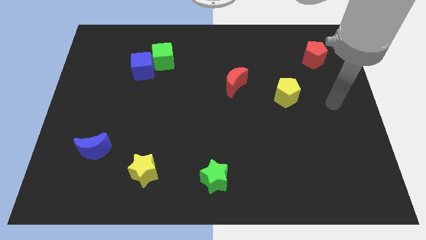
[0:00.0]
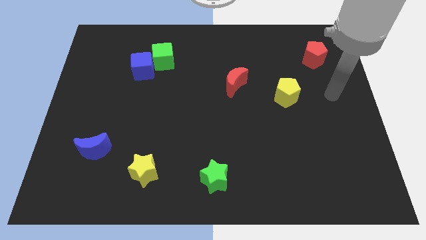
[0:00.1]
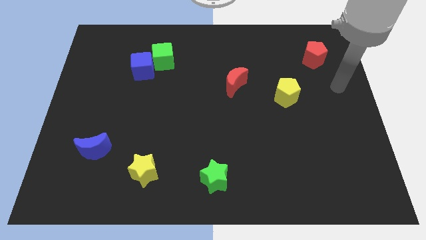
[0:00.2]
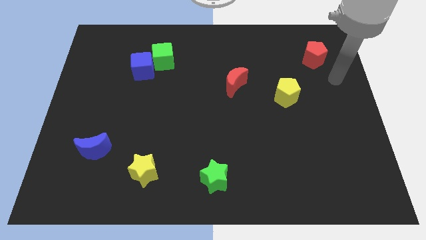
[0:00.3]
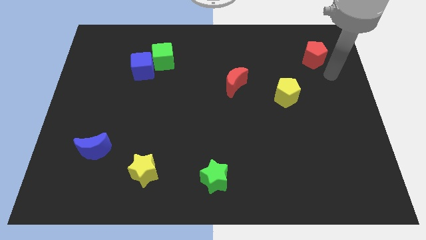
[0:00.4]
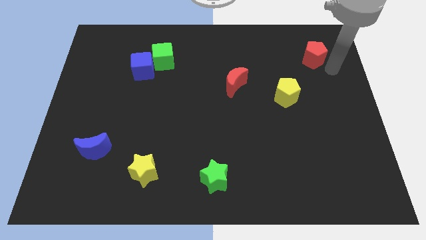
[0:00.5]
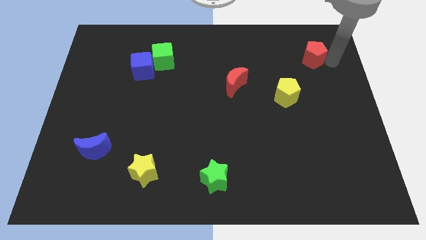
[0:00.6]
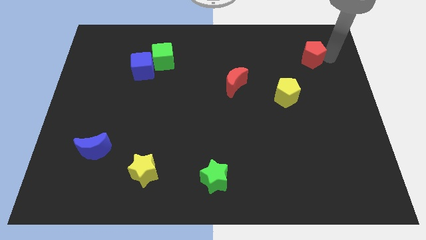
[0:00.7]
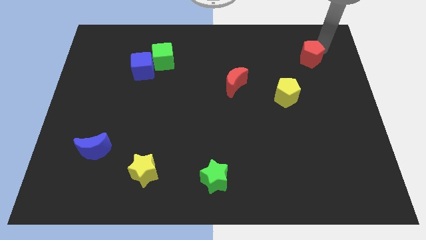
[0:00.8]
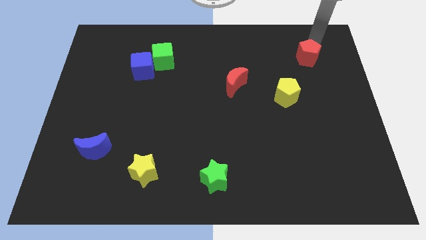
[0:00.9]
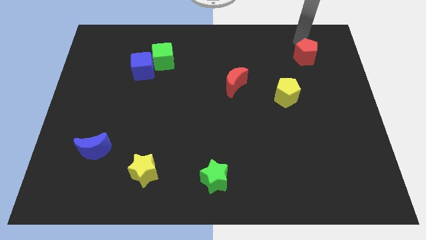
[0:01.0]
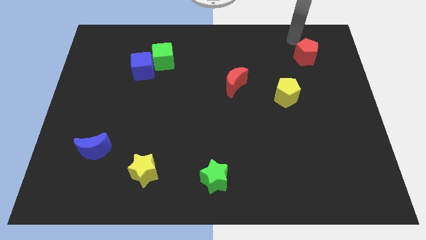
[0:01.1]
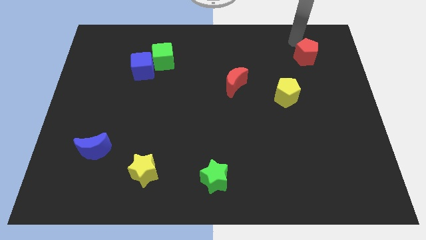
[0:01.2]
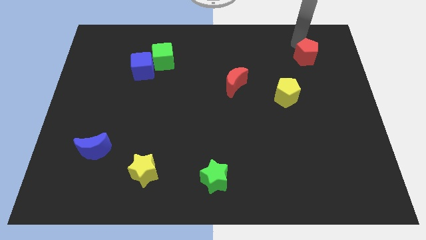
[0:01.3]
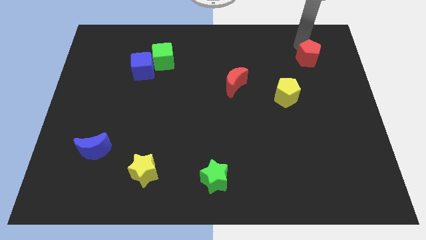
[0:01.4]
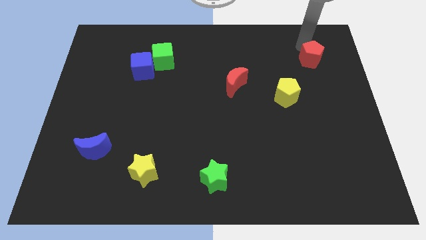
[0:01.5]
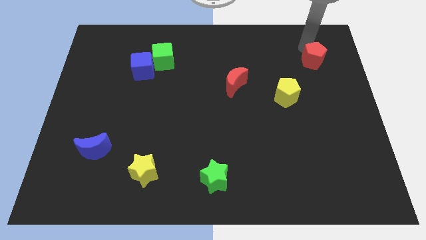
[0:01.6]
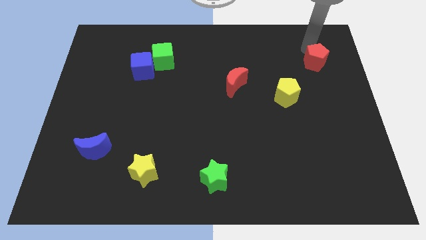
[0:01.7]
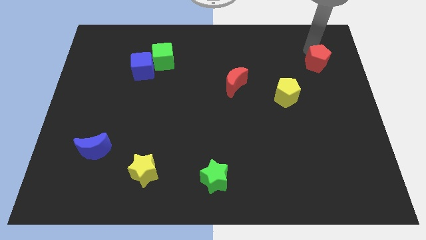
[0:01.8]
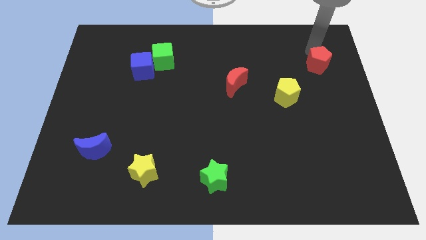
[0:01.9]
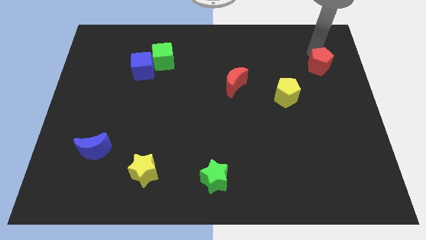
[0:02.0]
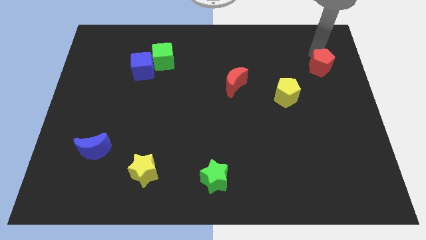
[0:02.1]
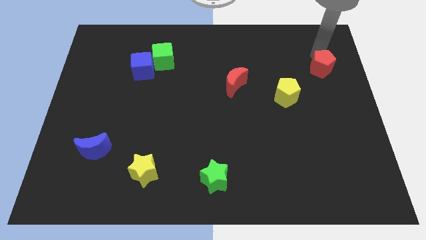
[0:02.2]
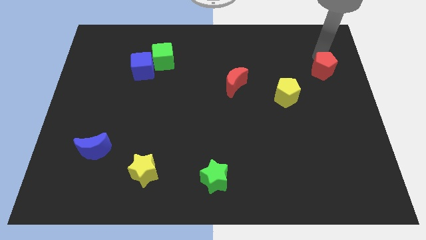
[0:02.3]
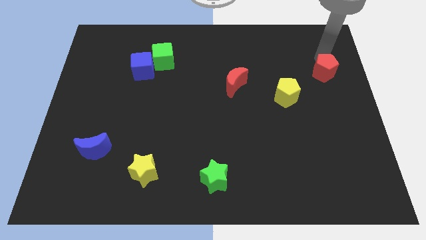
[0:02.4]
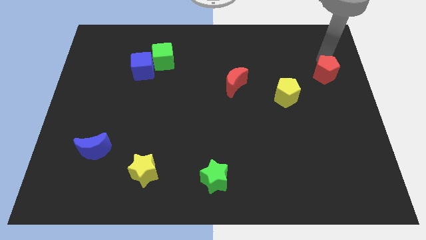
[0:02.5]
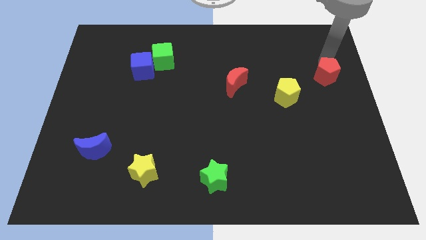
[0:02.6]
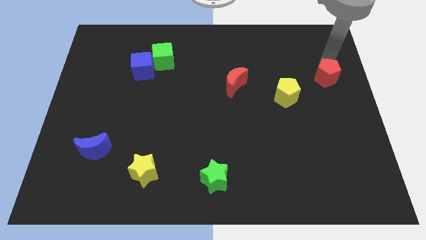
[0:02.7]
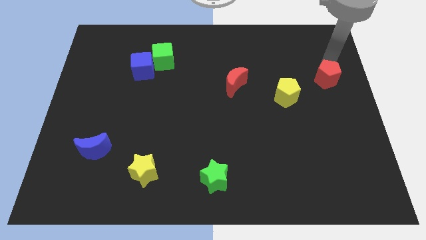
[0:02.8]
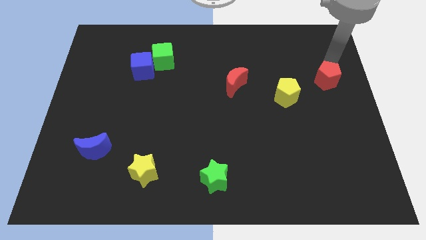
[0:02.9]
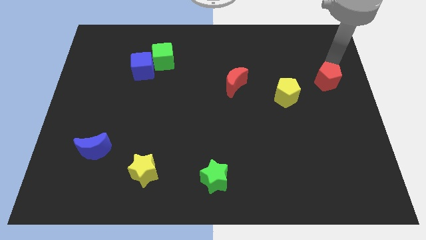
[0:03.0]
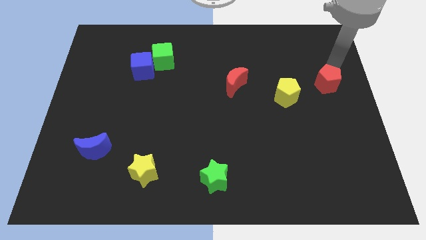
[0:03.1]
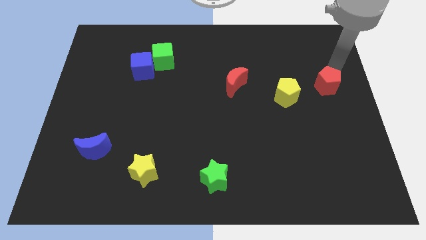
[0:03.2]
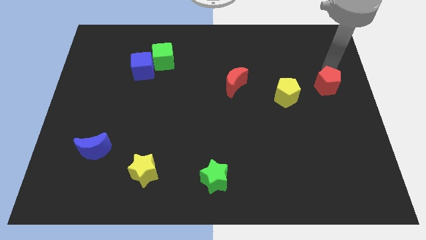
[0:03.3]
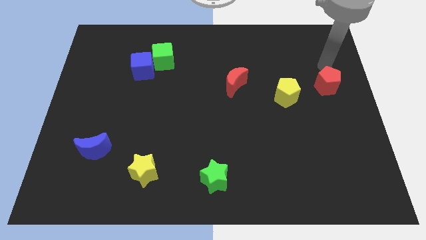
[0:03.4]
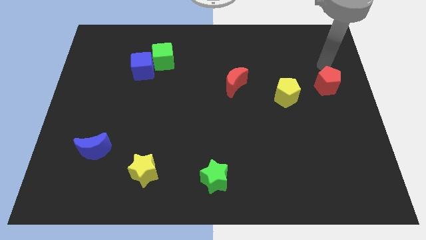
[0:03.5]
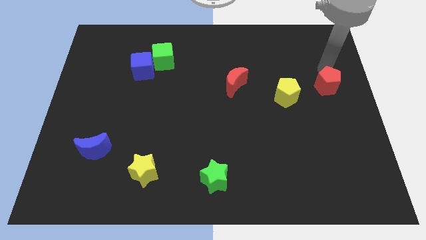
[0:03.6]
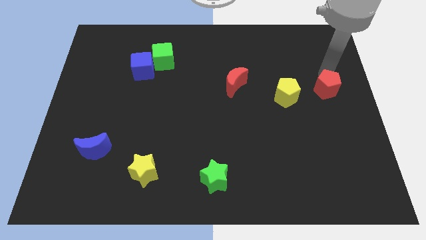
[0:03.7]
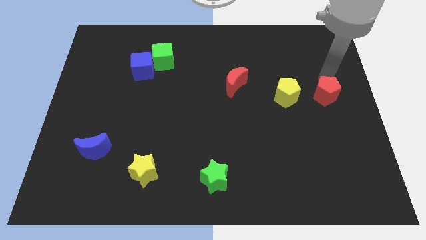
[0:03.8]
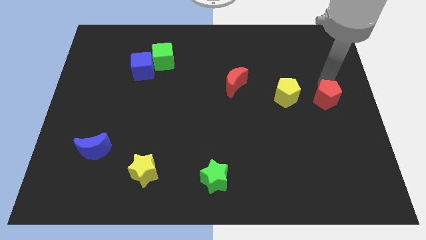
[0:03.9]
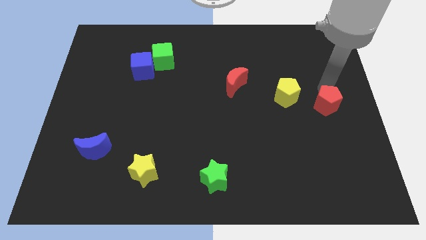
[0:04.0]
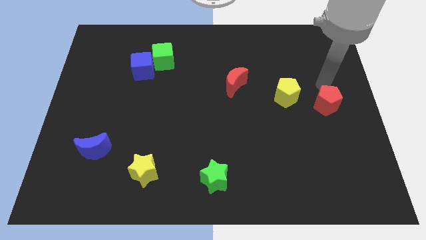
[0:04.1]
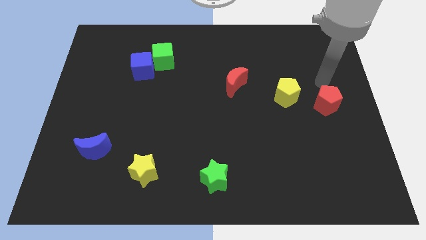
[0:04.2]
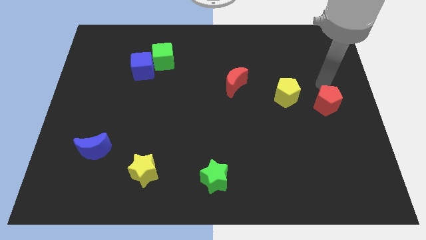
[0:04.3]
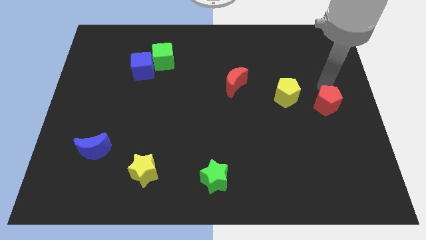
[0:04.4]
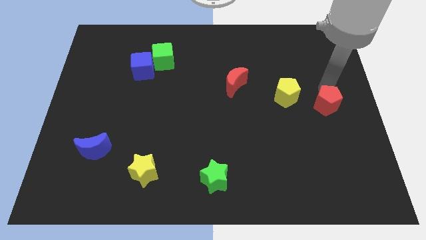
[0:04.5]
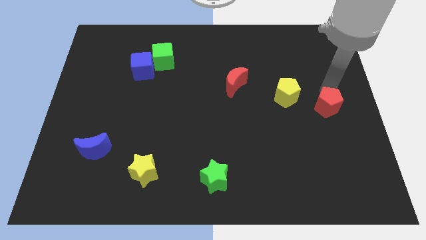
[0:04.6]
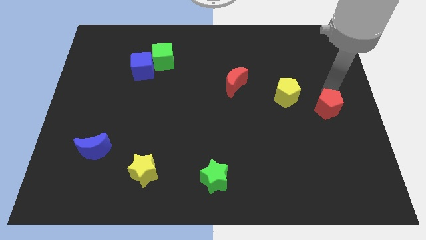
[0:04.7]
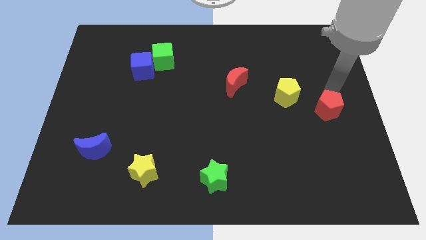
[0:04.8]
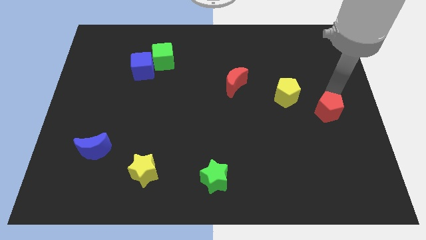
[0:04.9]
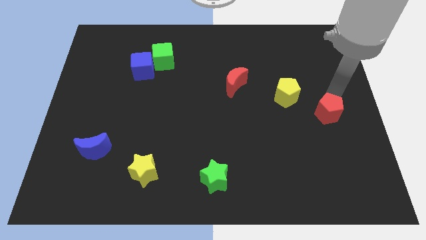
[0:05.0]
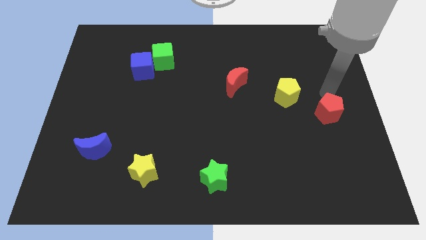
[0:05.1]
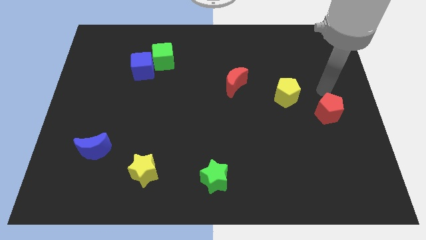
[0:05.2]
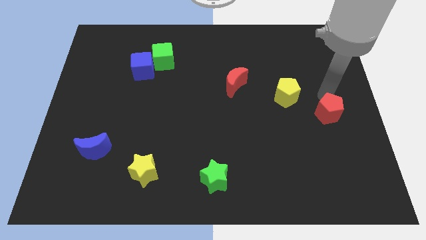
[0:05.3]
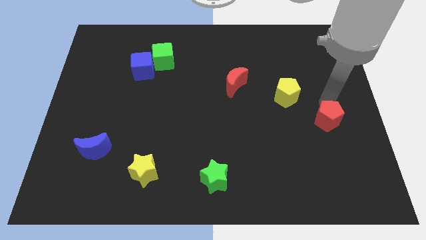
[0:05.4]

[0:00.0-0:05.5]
push the red pentagon down

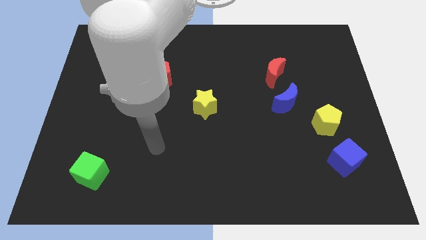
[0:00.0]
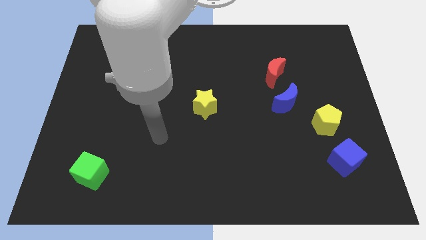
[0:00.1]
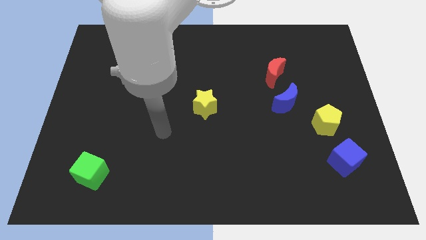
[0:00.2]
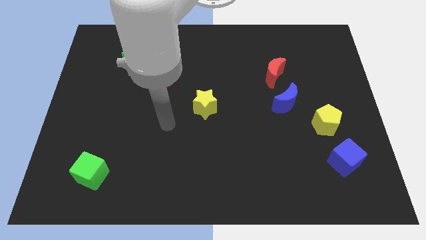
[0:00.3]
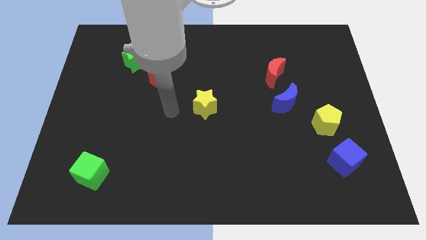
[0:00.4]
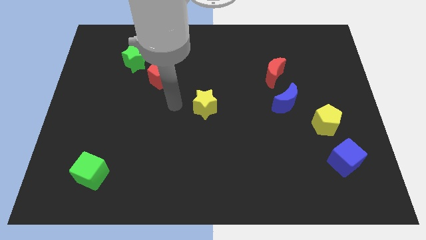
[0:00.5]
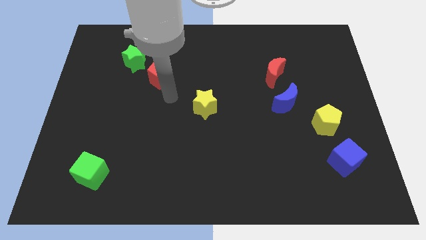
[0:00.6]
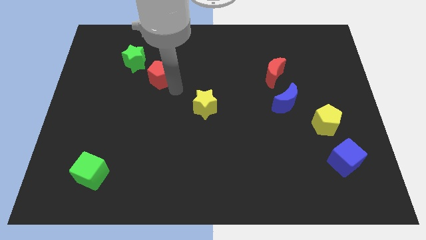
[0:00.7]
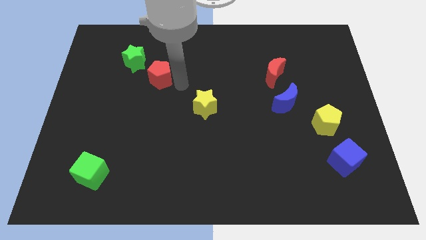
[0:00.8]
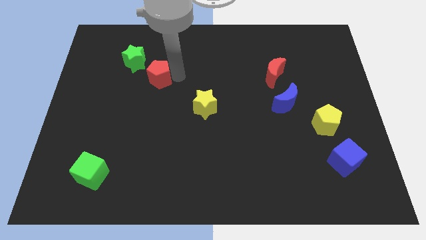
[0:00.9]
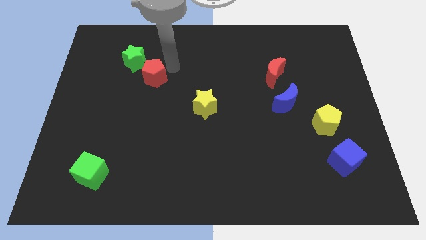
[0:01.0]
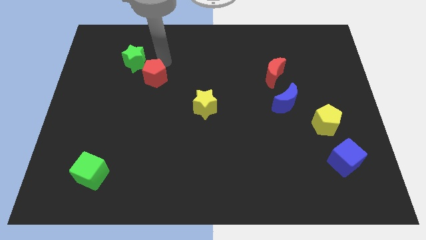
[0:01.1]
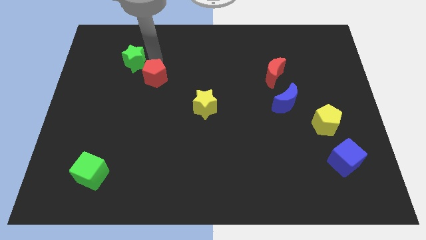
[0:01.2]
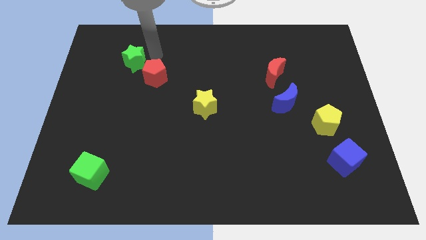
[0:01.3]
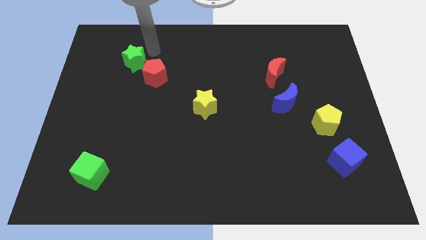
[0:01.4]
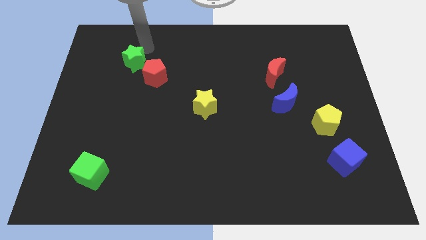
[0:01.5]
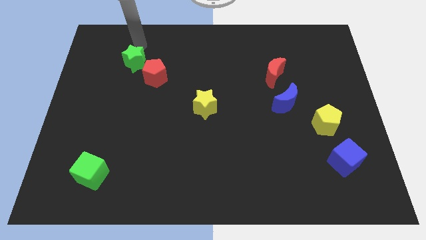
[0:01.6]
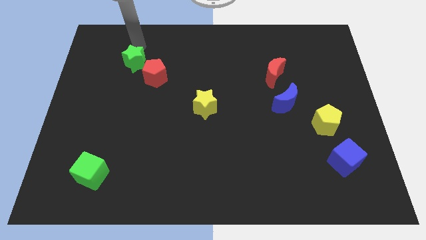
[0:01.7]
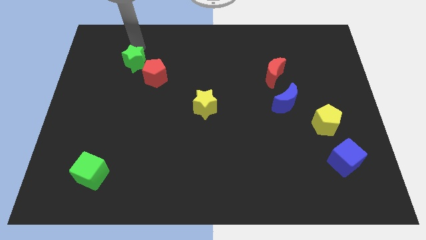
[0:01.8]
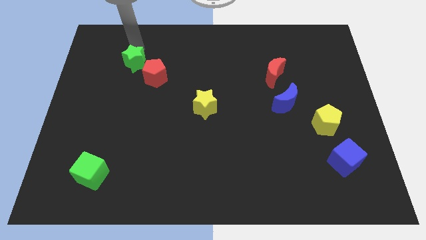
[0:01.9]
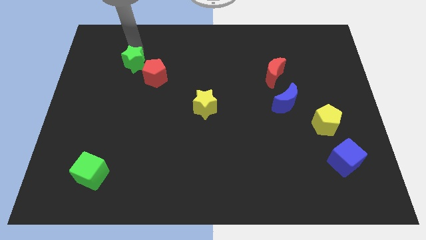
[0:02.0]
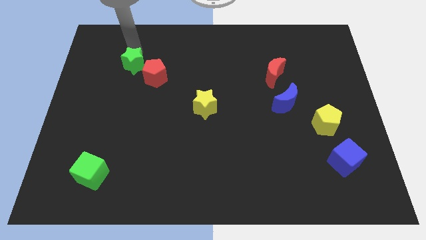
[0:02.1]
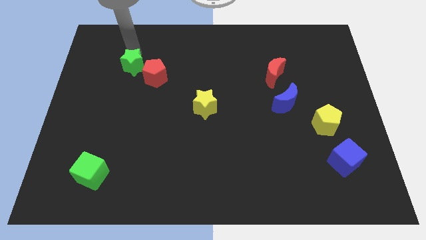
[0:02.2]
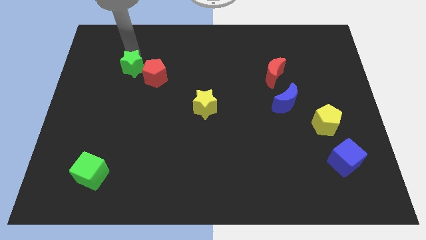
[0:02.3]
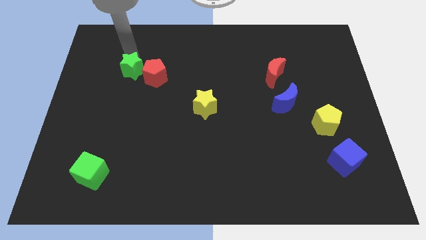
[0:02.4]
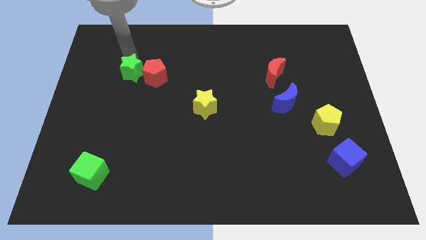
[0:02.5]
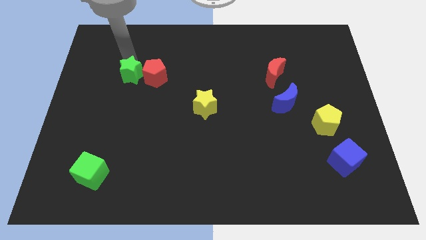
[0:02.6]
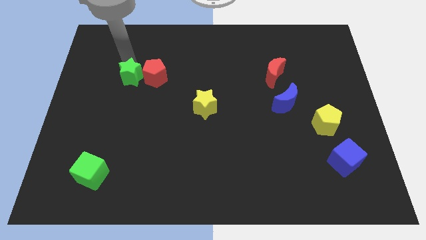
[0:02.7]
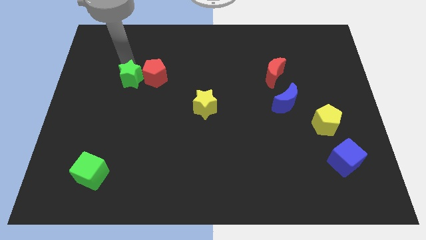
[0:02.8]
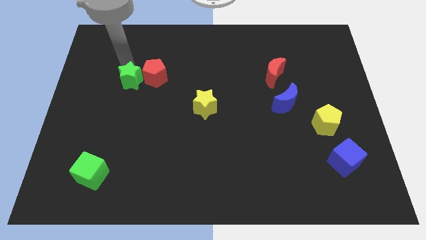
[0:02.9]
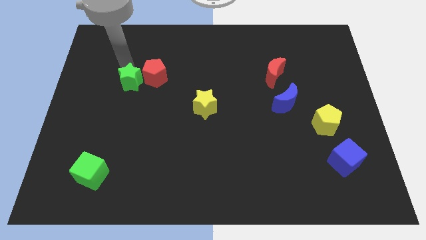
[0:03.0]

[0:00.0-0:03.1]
slightly slide the green star downwards
